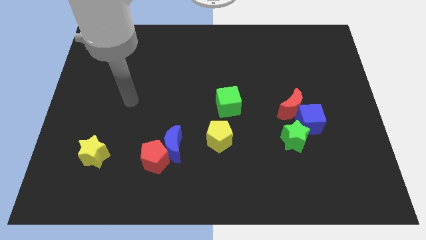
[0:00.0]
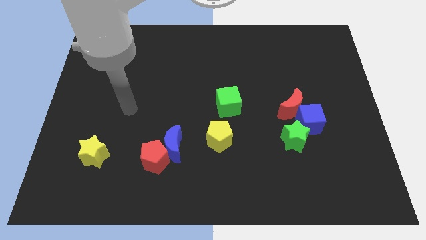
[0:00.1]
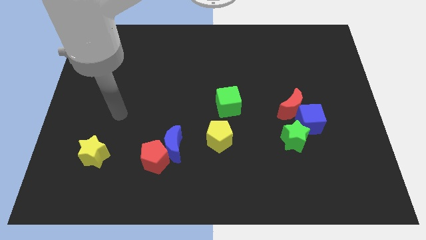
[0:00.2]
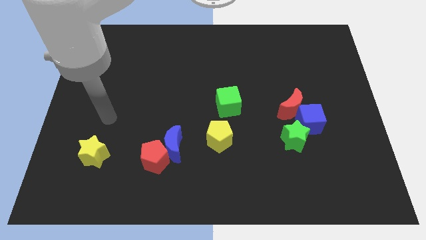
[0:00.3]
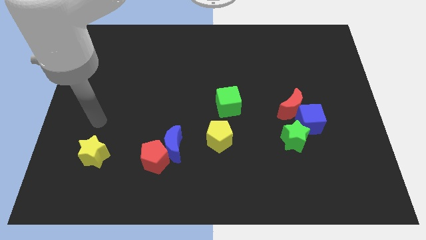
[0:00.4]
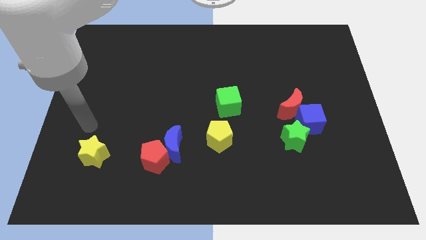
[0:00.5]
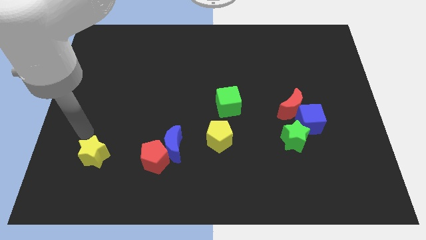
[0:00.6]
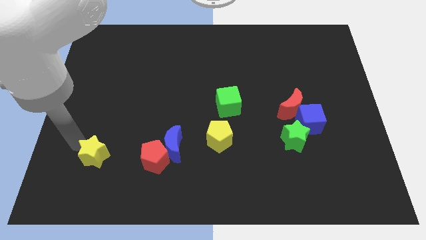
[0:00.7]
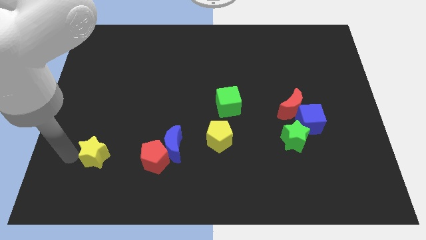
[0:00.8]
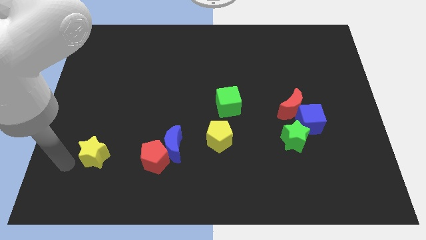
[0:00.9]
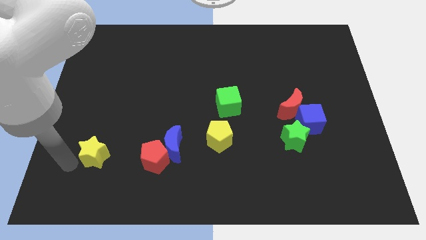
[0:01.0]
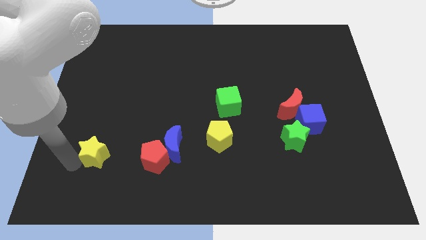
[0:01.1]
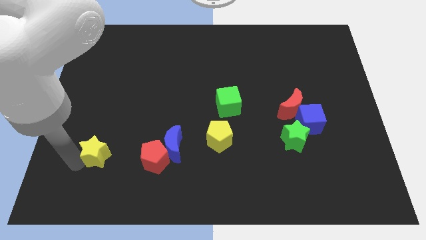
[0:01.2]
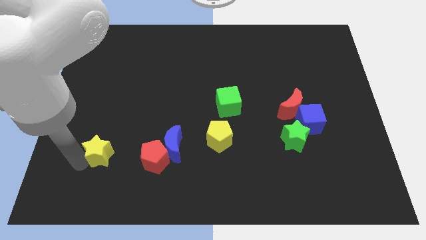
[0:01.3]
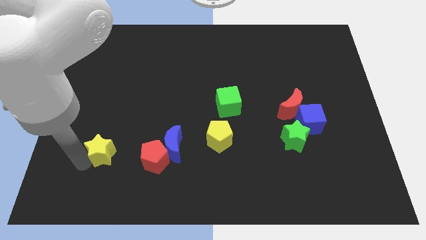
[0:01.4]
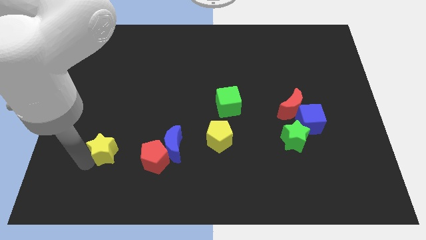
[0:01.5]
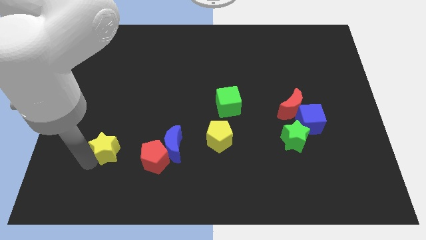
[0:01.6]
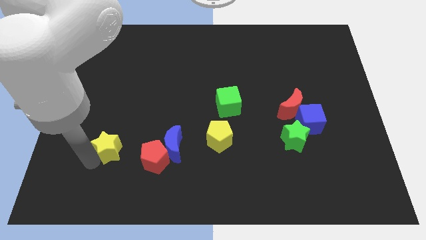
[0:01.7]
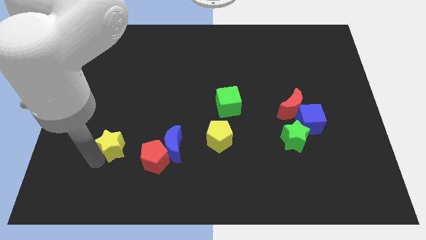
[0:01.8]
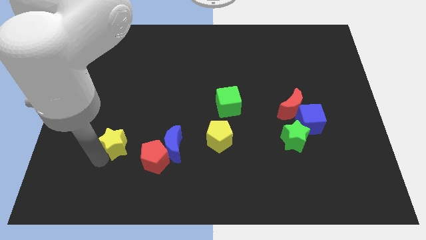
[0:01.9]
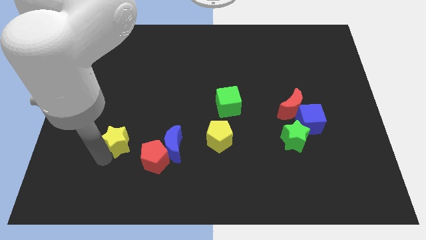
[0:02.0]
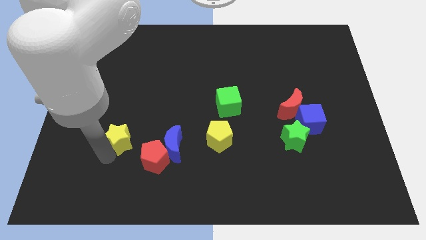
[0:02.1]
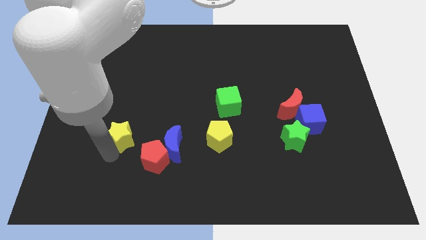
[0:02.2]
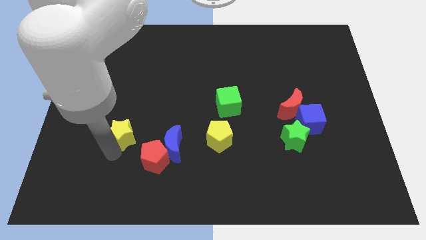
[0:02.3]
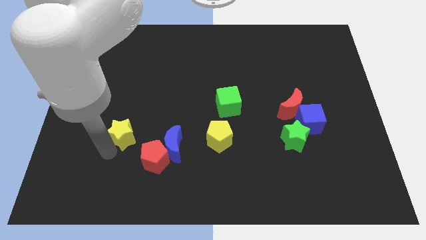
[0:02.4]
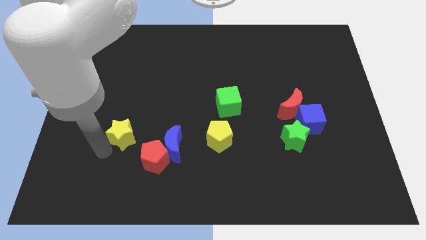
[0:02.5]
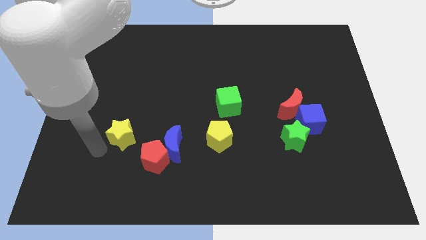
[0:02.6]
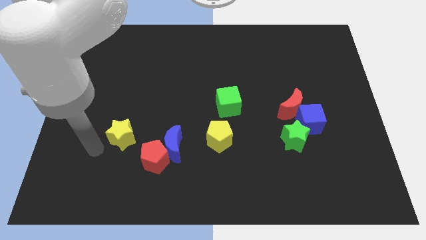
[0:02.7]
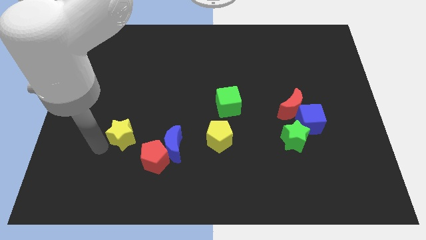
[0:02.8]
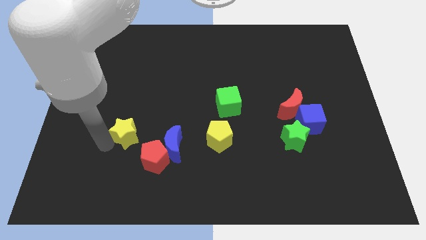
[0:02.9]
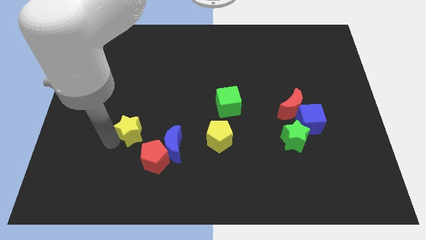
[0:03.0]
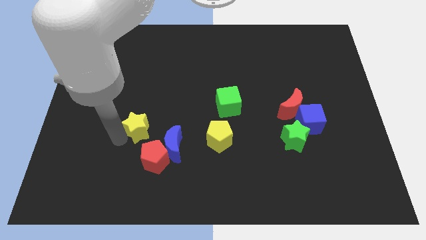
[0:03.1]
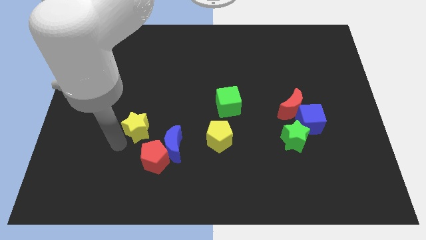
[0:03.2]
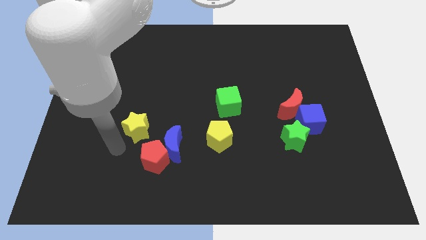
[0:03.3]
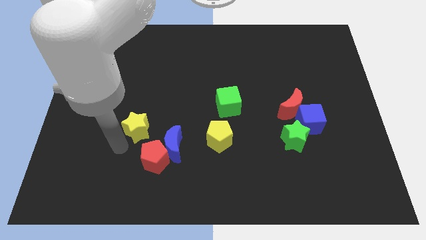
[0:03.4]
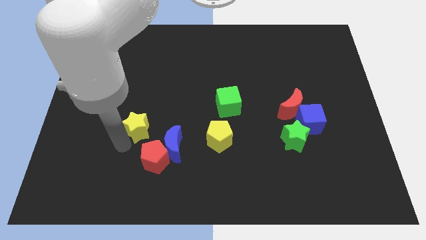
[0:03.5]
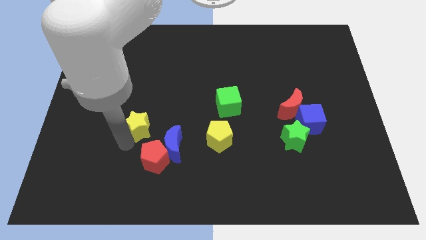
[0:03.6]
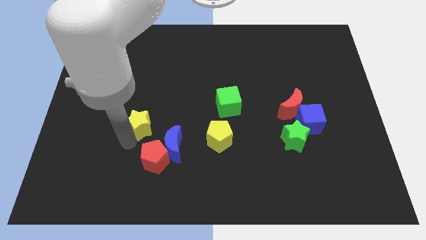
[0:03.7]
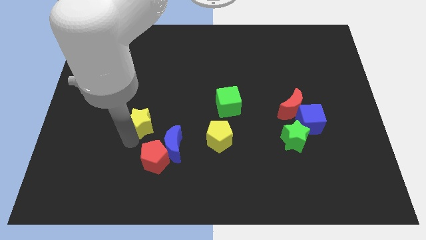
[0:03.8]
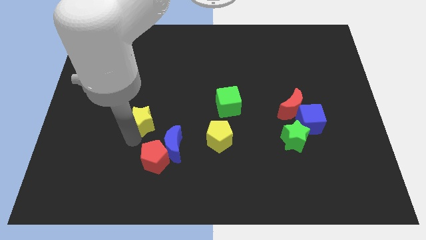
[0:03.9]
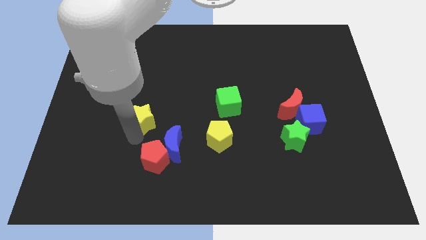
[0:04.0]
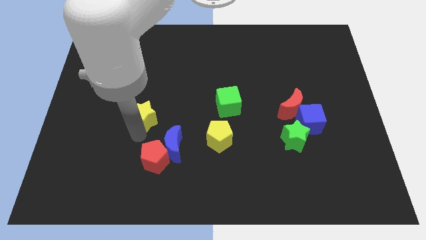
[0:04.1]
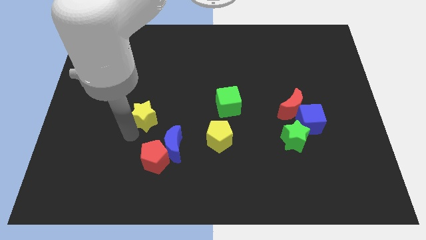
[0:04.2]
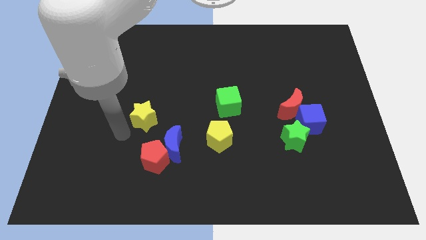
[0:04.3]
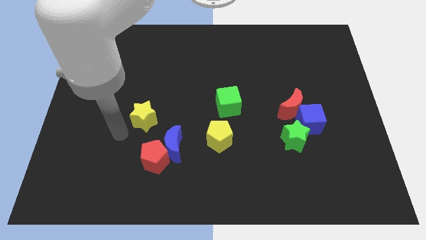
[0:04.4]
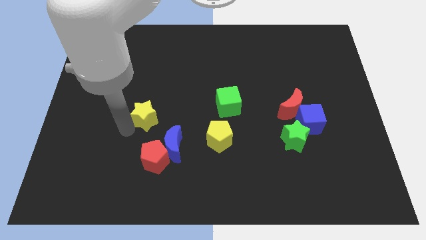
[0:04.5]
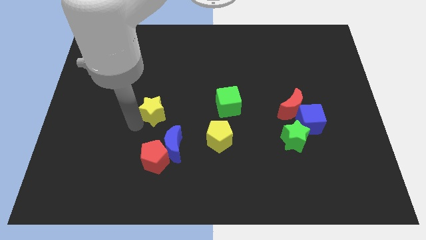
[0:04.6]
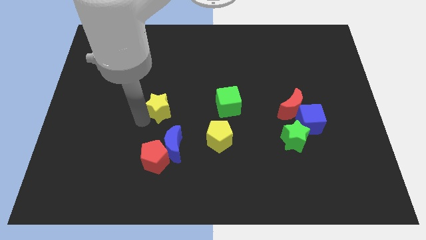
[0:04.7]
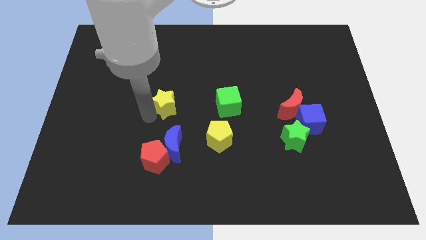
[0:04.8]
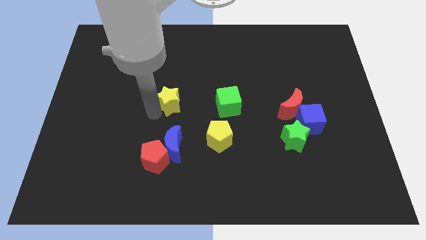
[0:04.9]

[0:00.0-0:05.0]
push the yellow star up and right

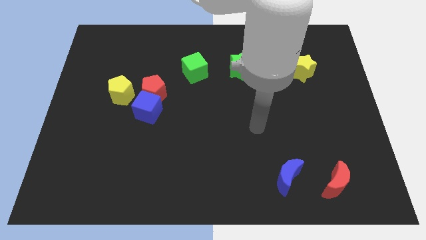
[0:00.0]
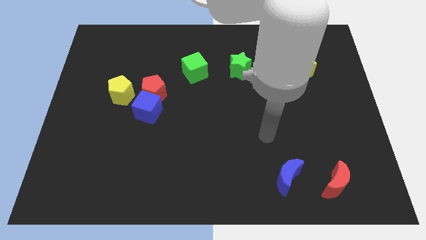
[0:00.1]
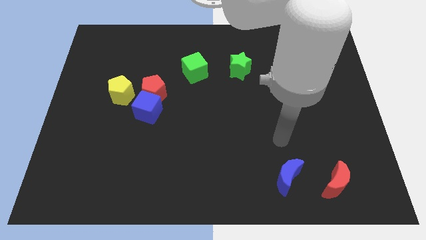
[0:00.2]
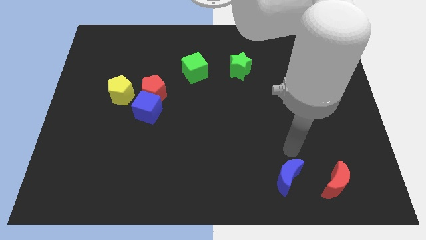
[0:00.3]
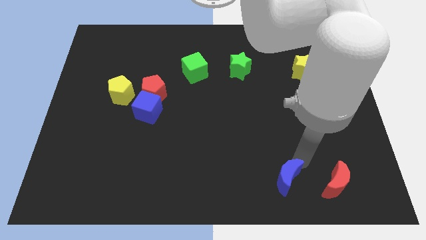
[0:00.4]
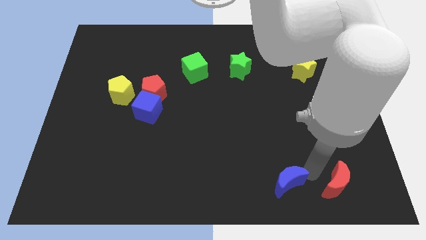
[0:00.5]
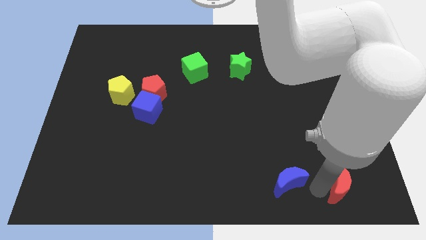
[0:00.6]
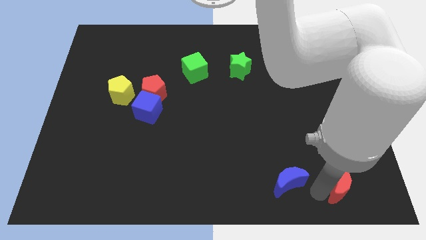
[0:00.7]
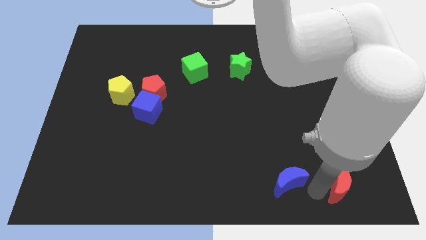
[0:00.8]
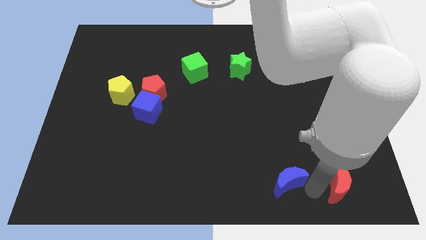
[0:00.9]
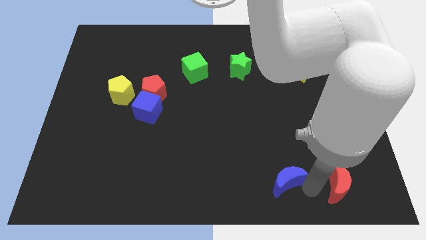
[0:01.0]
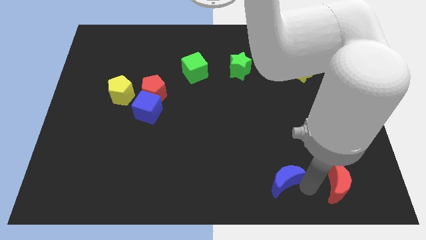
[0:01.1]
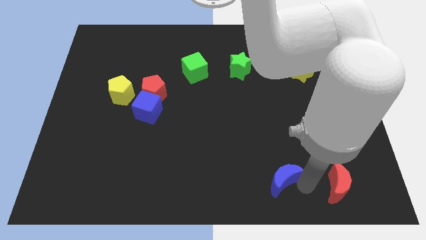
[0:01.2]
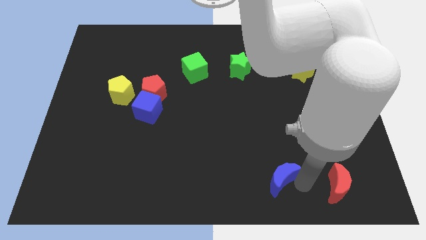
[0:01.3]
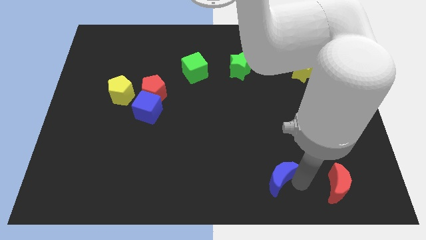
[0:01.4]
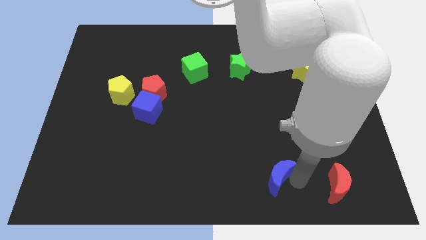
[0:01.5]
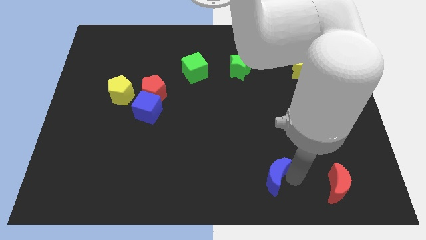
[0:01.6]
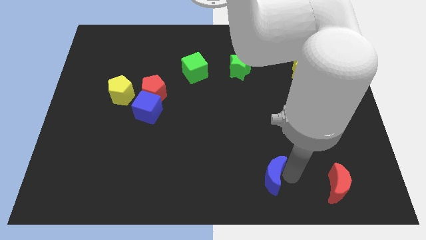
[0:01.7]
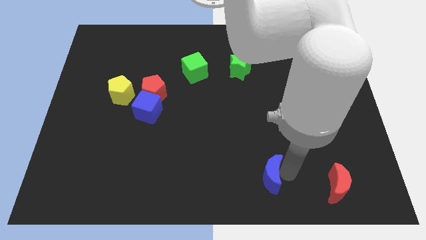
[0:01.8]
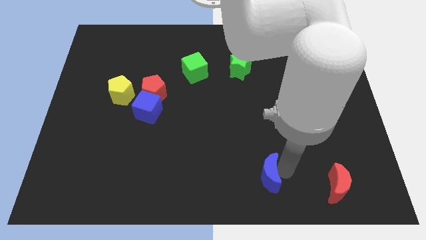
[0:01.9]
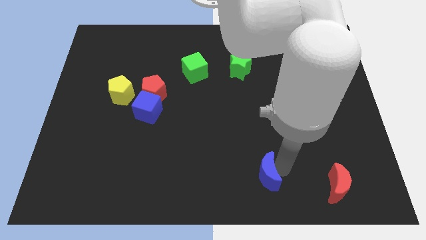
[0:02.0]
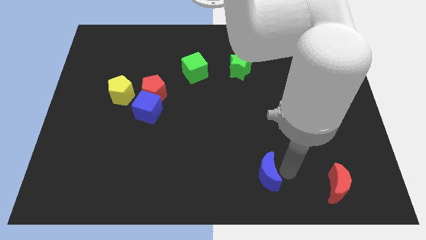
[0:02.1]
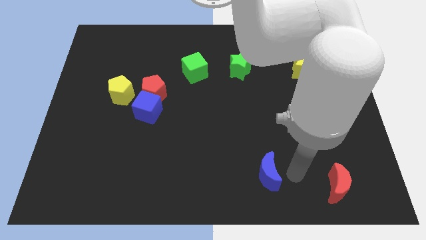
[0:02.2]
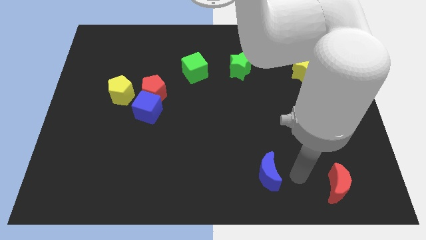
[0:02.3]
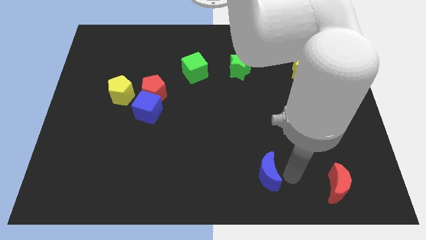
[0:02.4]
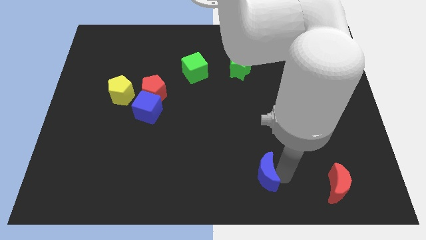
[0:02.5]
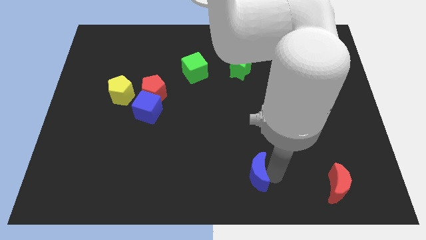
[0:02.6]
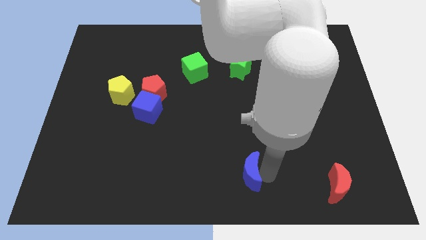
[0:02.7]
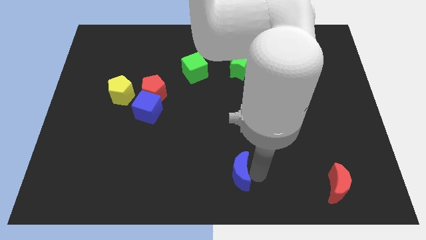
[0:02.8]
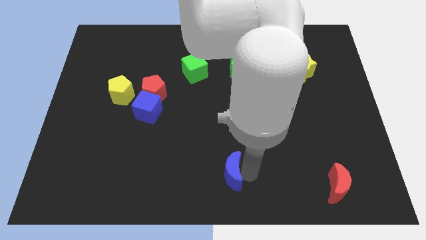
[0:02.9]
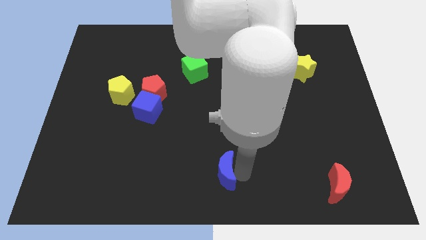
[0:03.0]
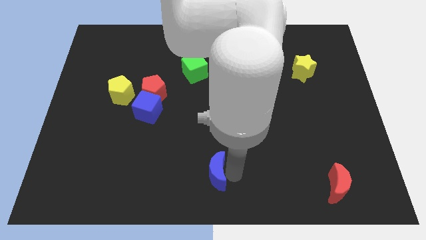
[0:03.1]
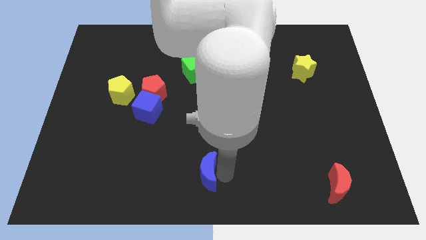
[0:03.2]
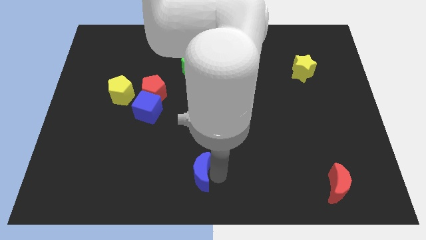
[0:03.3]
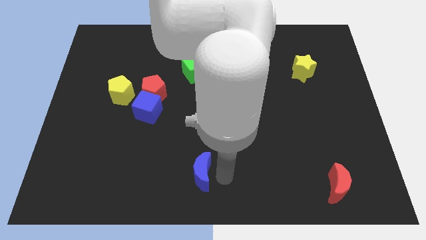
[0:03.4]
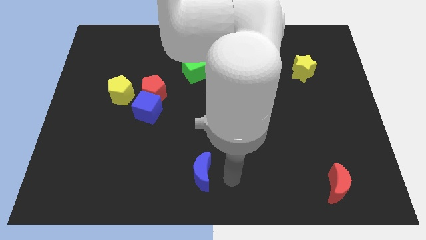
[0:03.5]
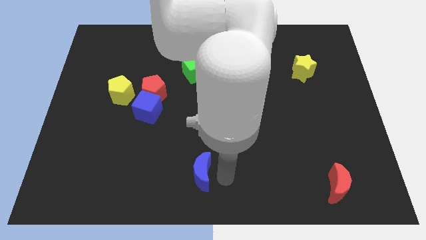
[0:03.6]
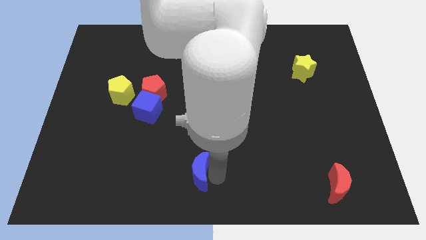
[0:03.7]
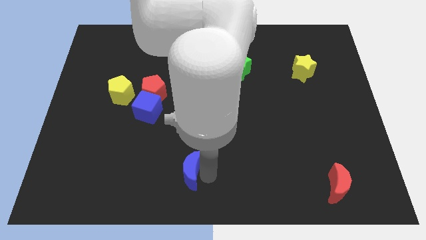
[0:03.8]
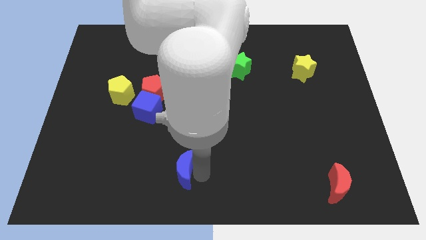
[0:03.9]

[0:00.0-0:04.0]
slide the blue moon left
